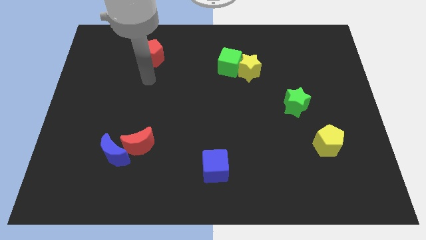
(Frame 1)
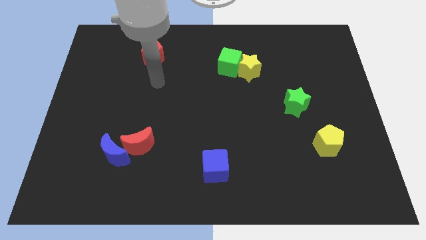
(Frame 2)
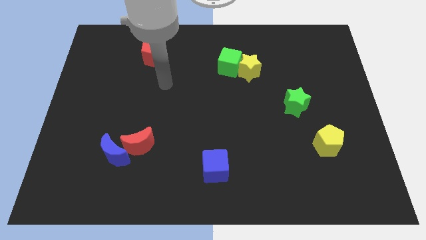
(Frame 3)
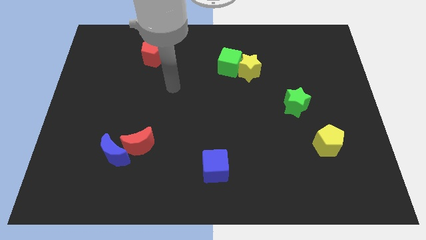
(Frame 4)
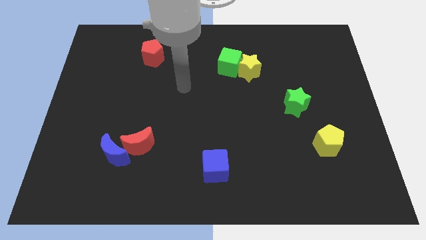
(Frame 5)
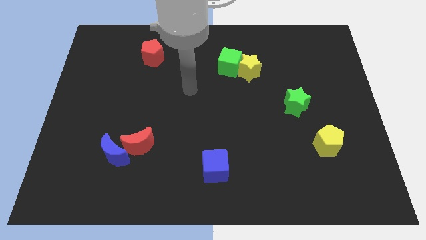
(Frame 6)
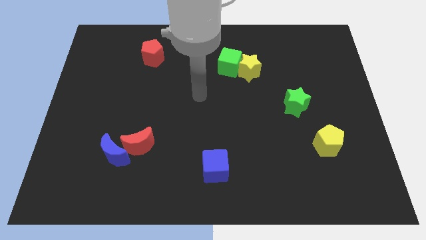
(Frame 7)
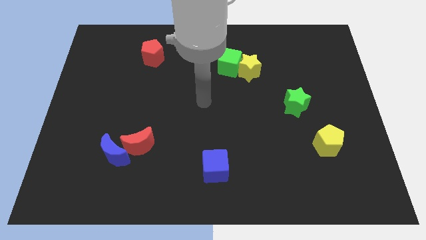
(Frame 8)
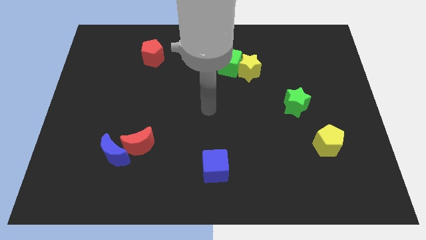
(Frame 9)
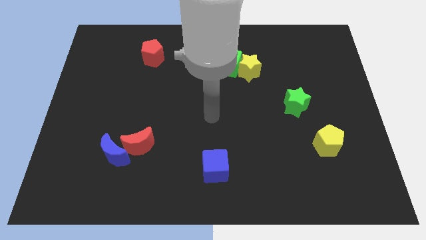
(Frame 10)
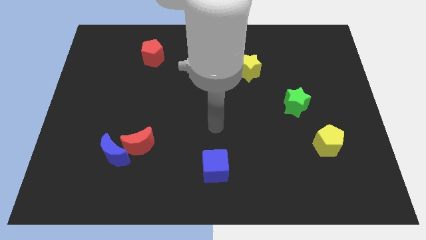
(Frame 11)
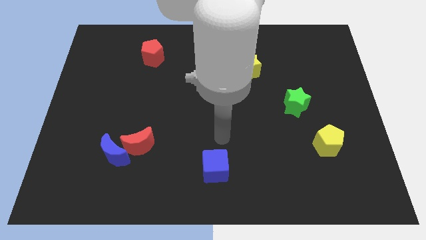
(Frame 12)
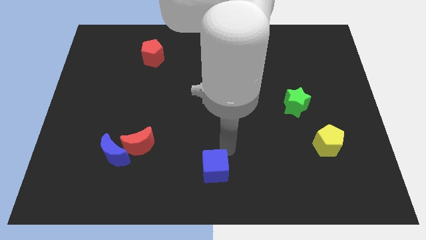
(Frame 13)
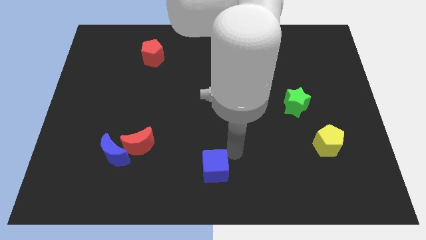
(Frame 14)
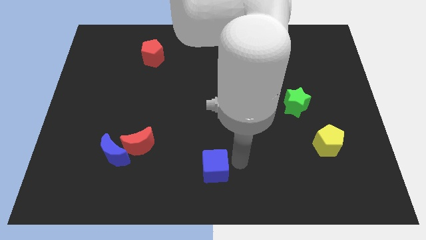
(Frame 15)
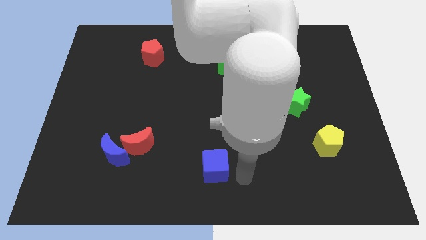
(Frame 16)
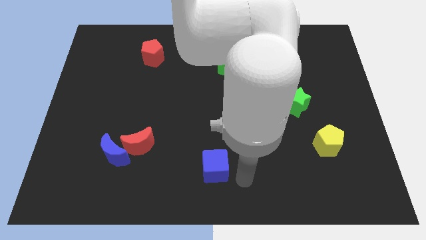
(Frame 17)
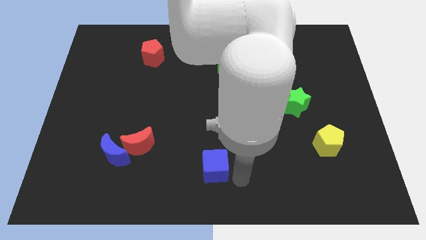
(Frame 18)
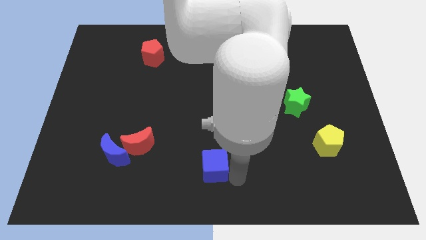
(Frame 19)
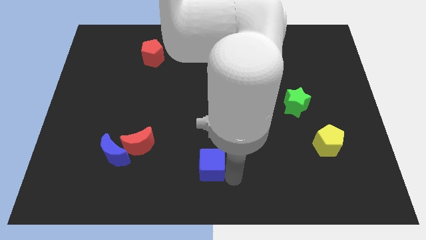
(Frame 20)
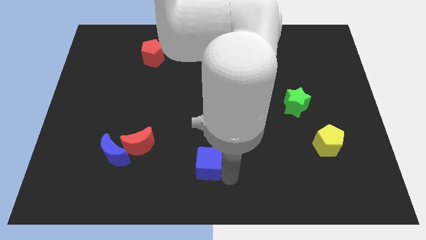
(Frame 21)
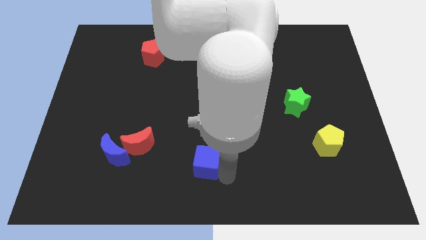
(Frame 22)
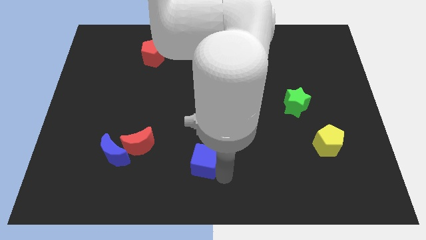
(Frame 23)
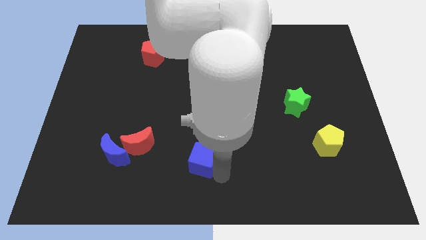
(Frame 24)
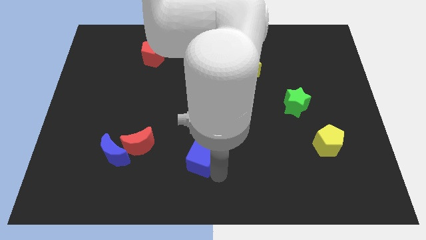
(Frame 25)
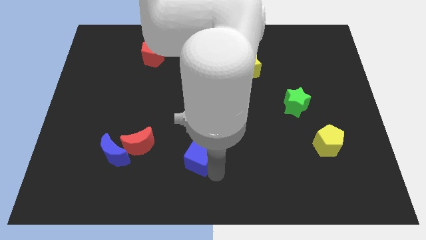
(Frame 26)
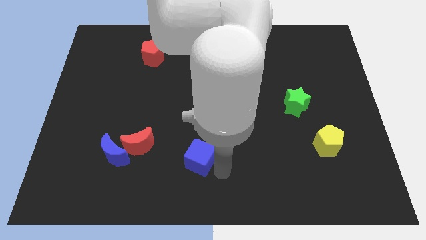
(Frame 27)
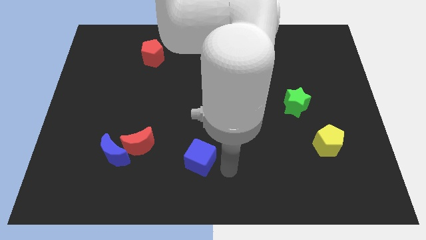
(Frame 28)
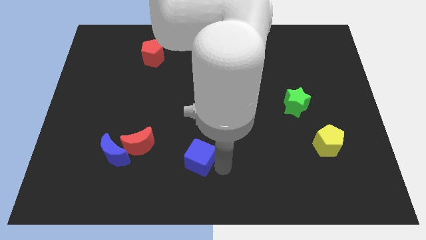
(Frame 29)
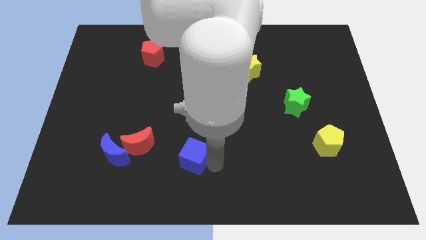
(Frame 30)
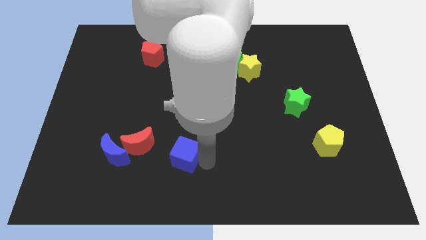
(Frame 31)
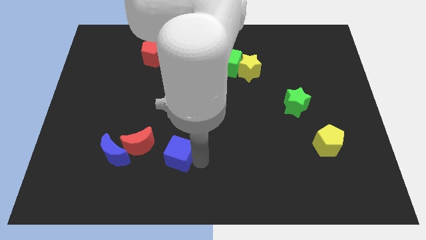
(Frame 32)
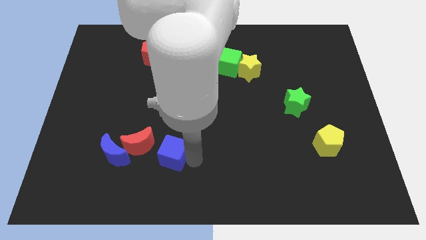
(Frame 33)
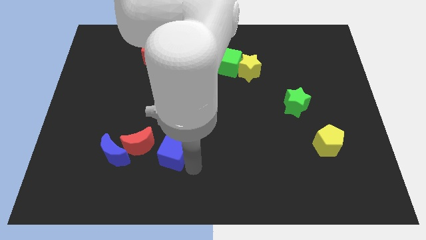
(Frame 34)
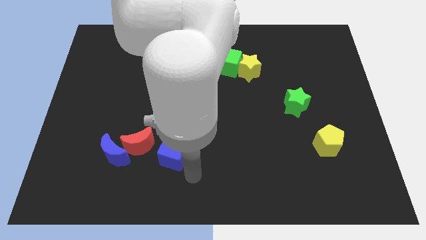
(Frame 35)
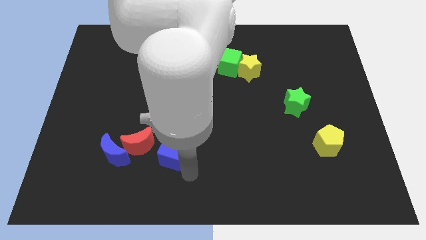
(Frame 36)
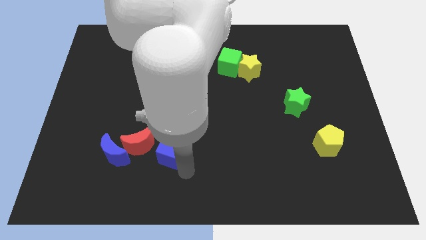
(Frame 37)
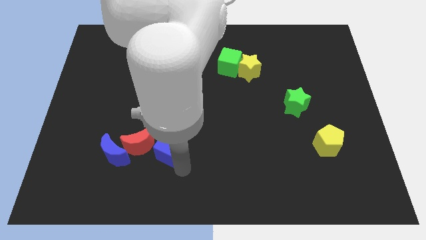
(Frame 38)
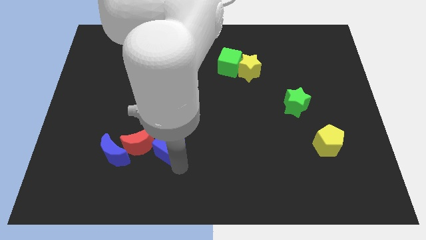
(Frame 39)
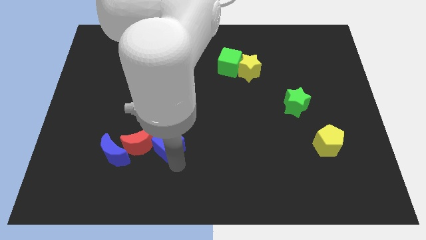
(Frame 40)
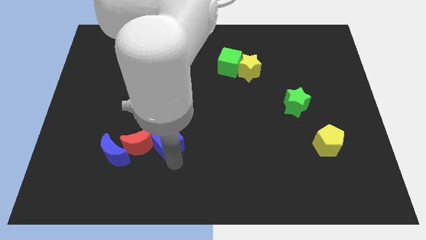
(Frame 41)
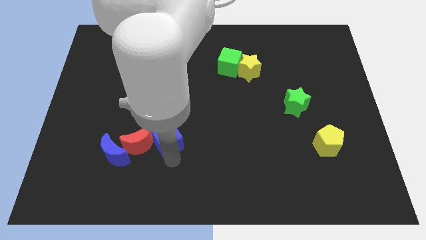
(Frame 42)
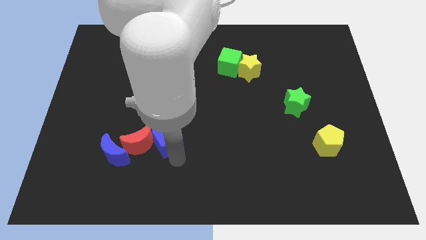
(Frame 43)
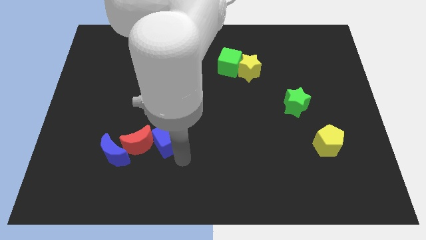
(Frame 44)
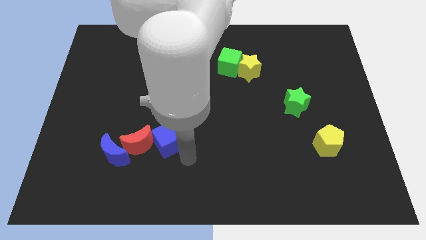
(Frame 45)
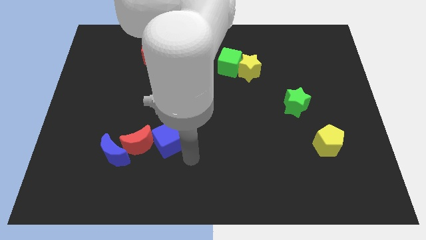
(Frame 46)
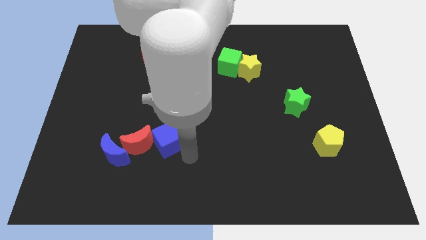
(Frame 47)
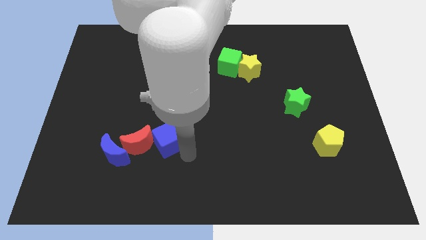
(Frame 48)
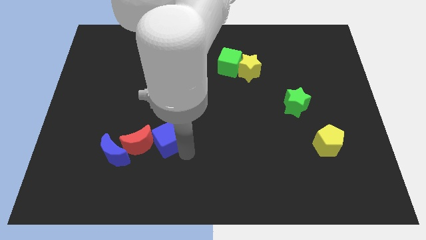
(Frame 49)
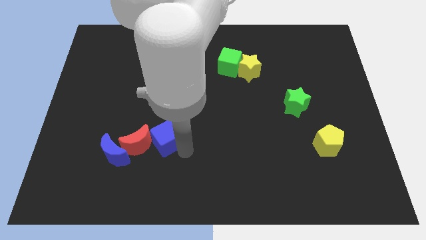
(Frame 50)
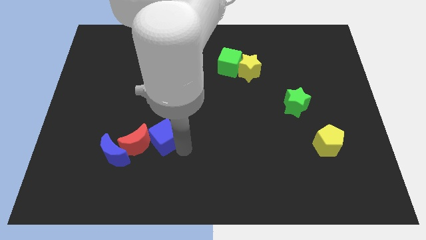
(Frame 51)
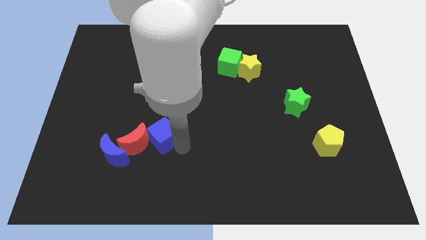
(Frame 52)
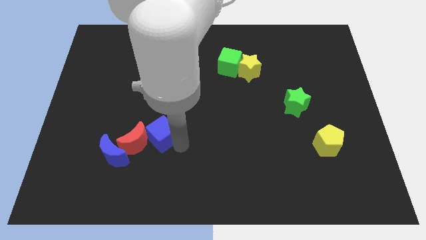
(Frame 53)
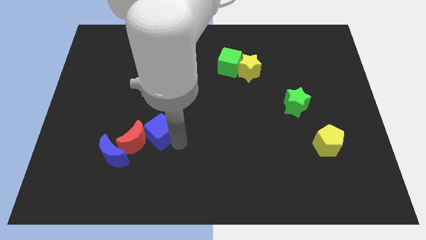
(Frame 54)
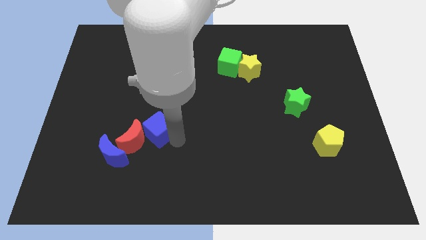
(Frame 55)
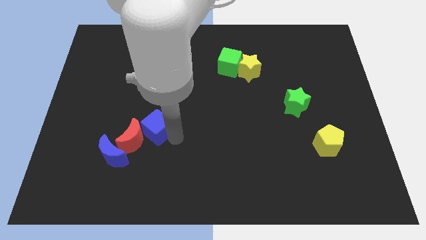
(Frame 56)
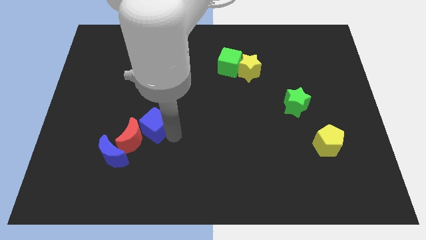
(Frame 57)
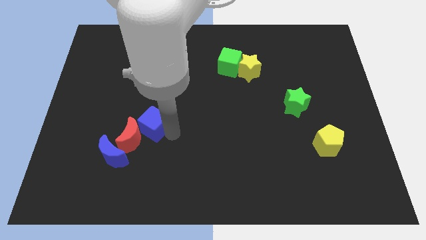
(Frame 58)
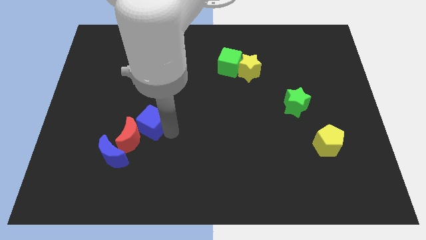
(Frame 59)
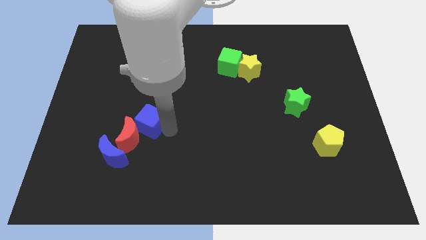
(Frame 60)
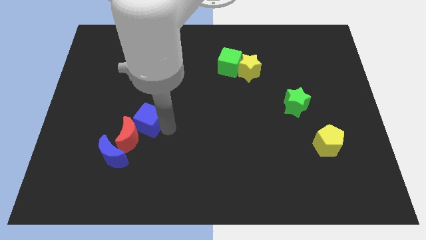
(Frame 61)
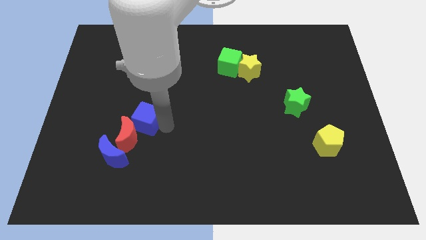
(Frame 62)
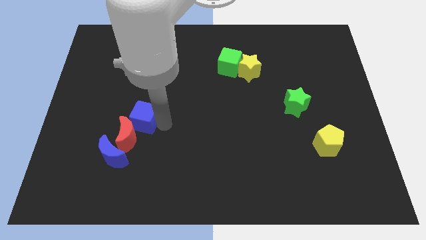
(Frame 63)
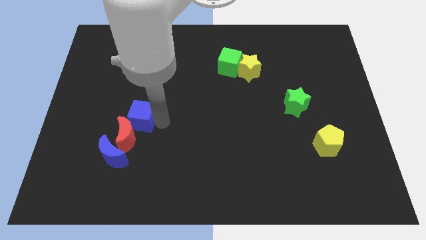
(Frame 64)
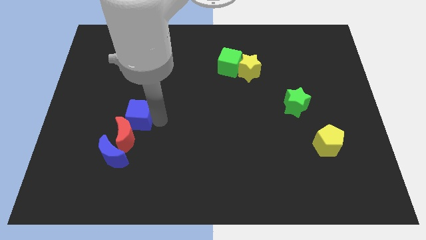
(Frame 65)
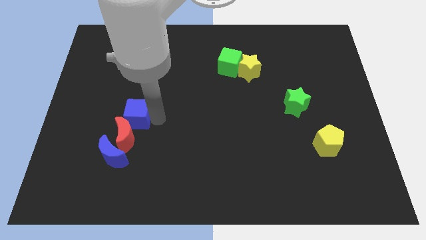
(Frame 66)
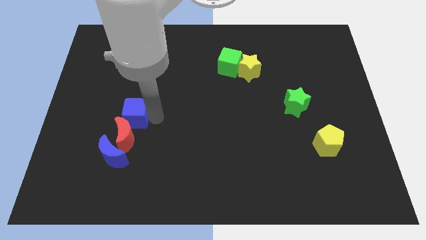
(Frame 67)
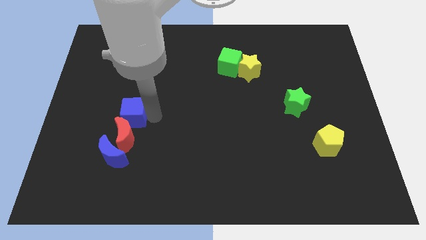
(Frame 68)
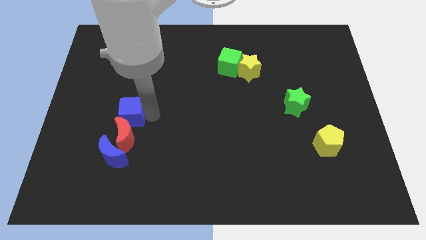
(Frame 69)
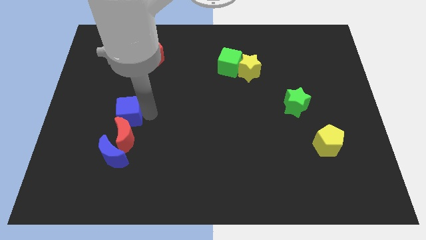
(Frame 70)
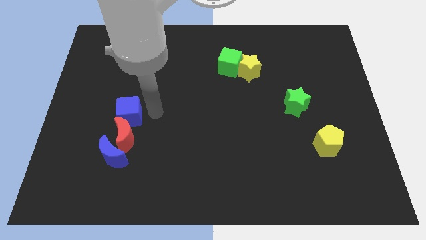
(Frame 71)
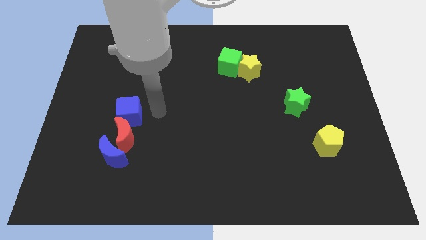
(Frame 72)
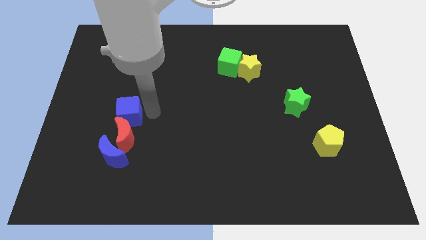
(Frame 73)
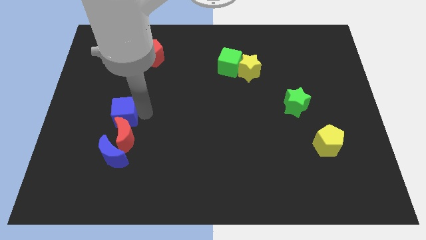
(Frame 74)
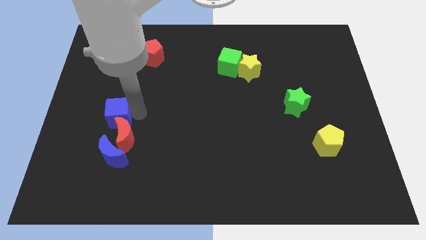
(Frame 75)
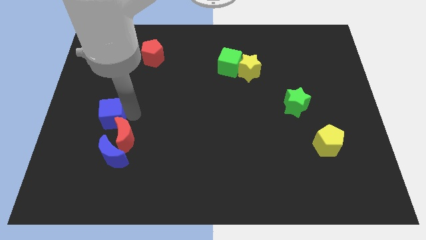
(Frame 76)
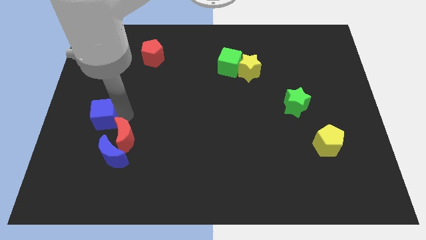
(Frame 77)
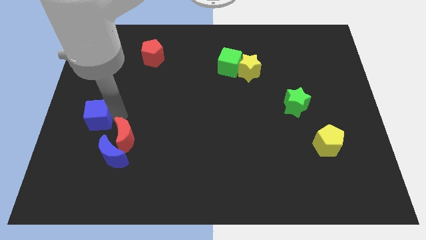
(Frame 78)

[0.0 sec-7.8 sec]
push the blue cube to the left side of the board
